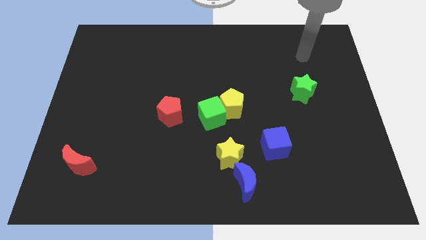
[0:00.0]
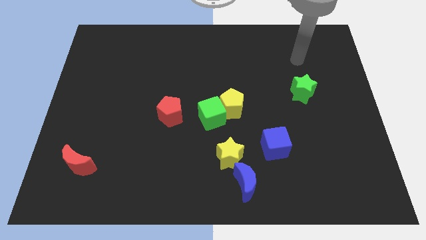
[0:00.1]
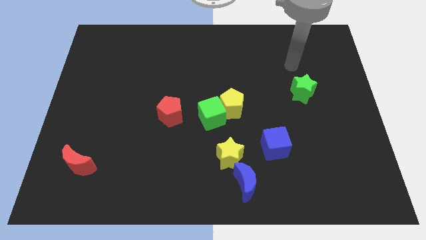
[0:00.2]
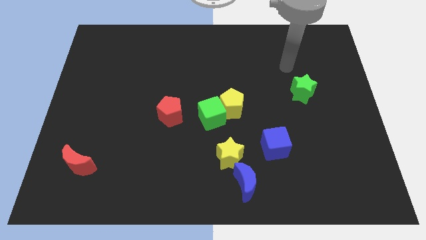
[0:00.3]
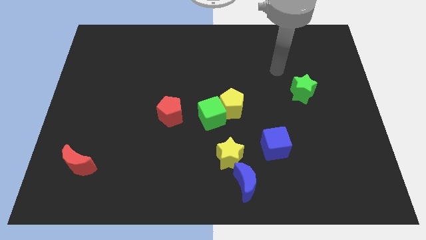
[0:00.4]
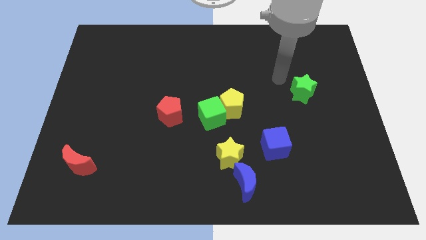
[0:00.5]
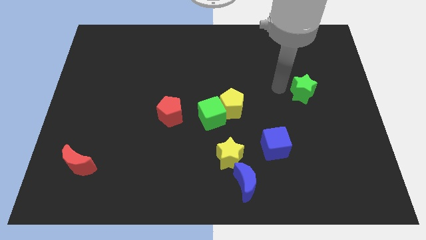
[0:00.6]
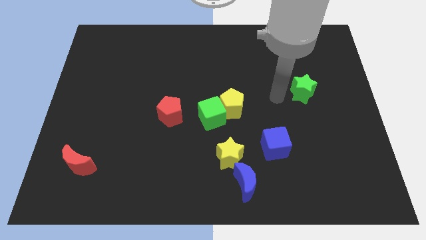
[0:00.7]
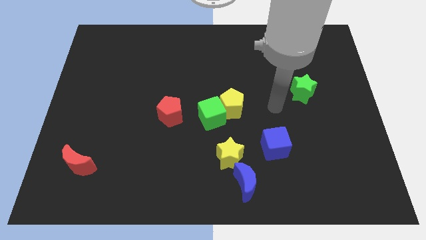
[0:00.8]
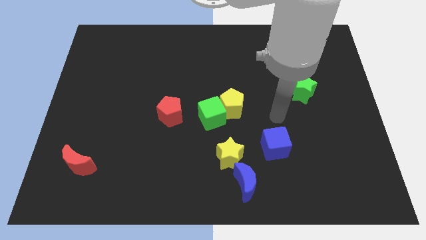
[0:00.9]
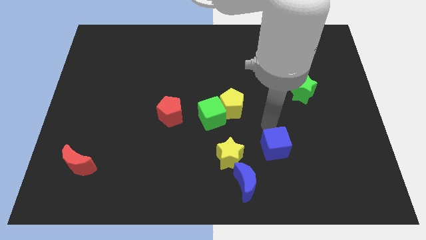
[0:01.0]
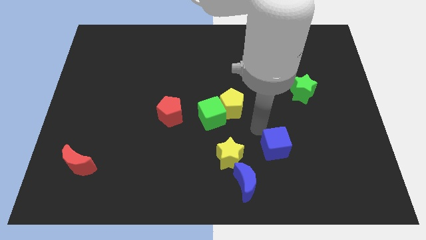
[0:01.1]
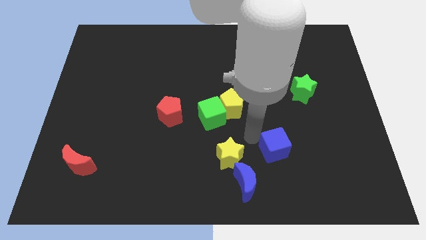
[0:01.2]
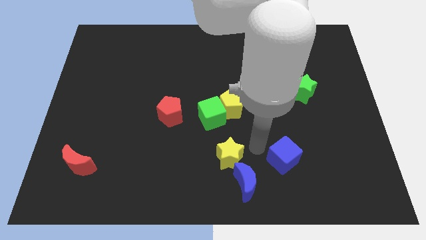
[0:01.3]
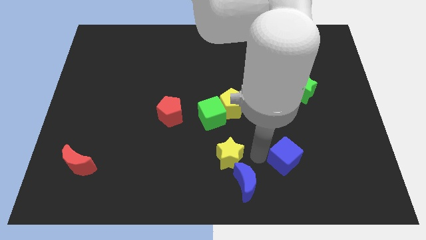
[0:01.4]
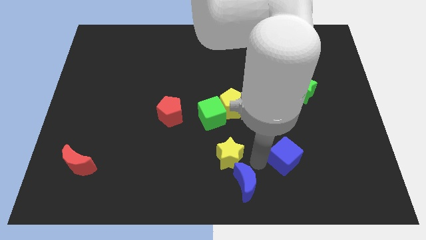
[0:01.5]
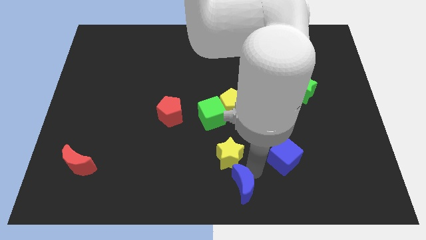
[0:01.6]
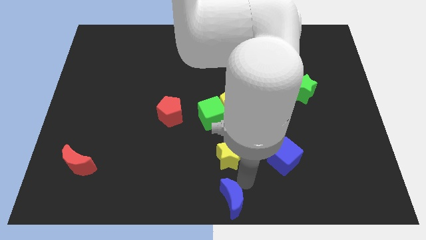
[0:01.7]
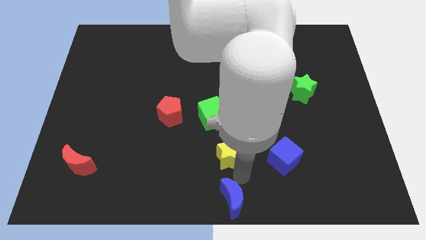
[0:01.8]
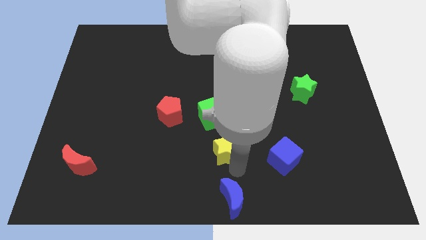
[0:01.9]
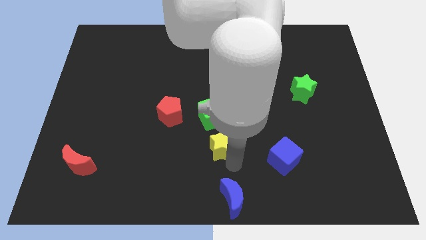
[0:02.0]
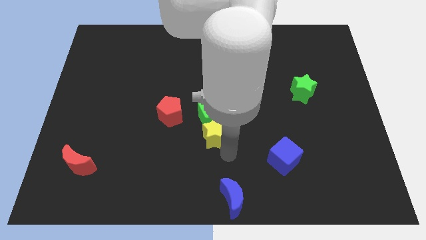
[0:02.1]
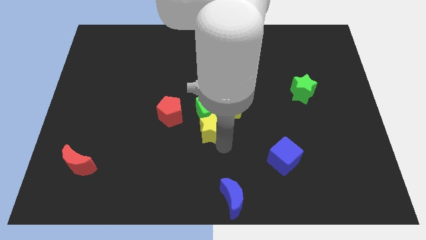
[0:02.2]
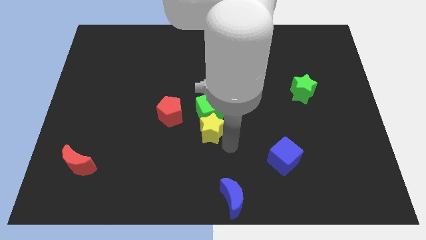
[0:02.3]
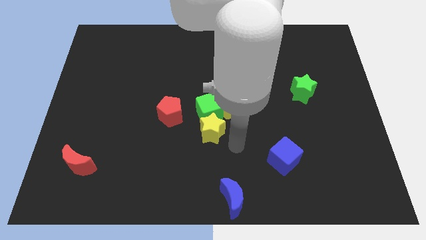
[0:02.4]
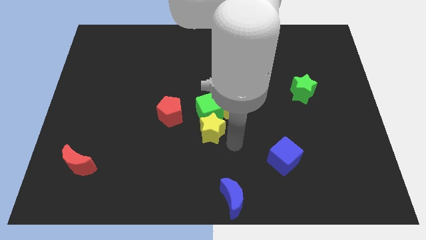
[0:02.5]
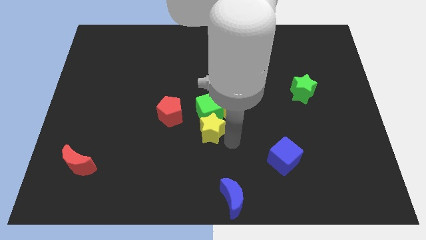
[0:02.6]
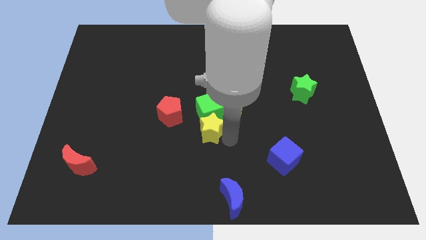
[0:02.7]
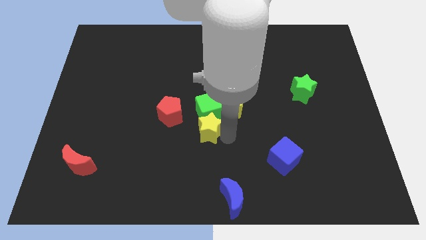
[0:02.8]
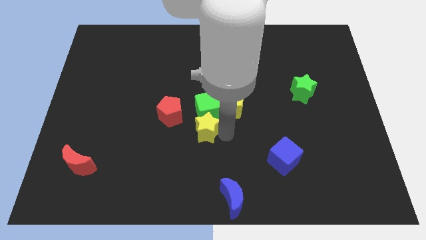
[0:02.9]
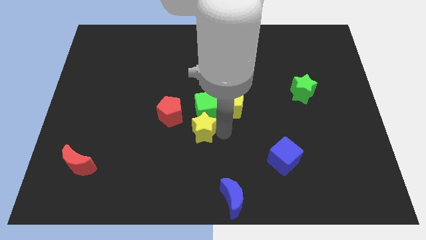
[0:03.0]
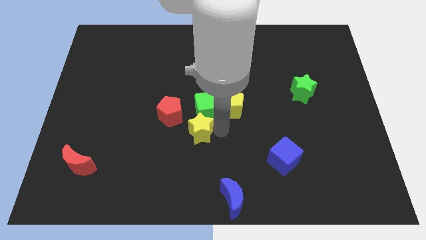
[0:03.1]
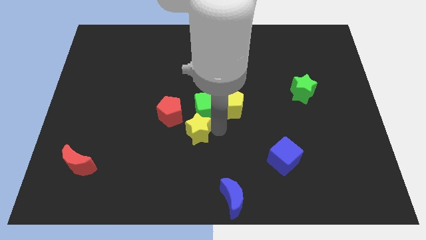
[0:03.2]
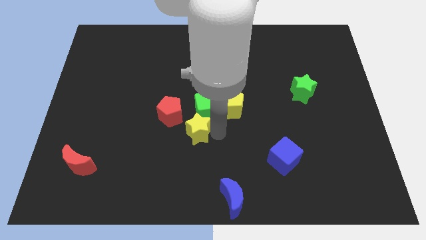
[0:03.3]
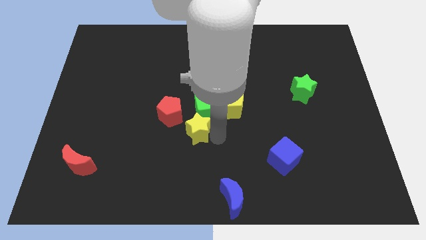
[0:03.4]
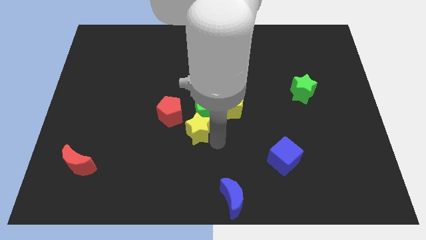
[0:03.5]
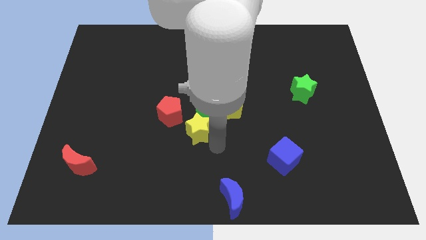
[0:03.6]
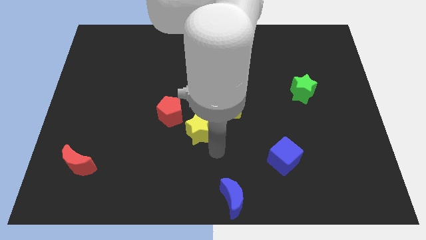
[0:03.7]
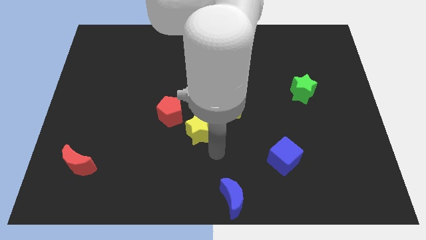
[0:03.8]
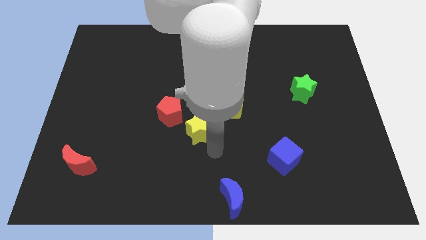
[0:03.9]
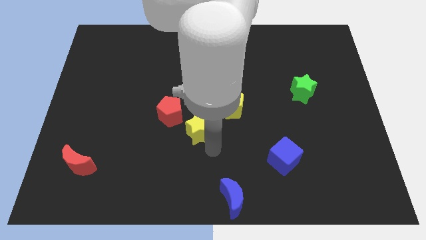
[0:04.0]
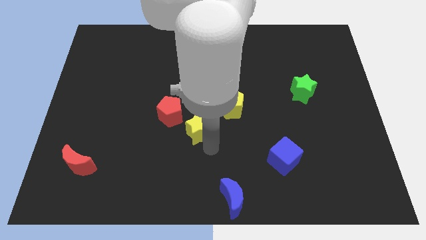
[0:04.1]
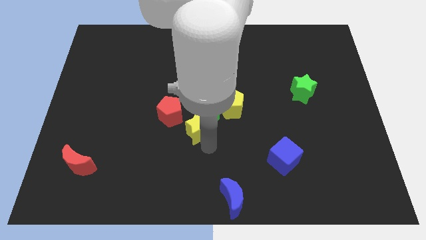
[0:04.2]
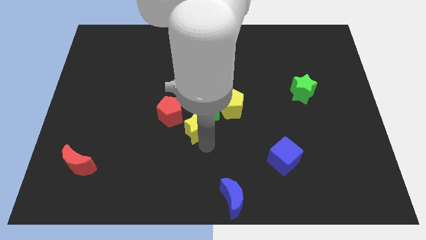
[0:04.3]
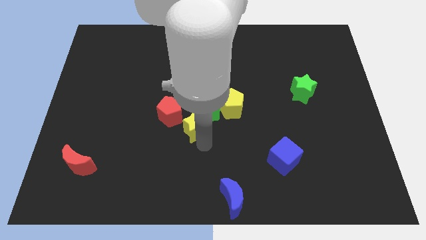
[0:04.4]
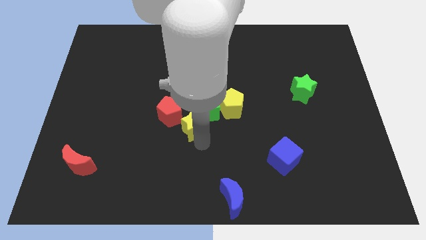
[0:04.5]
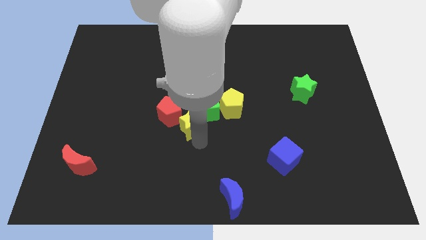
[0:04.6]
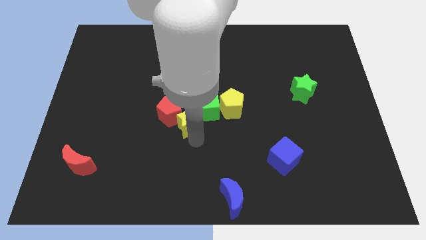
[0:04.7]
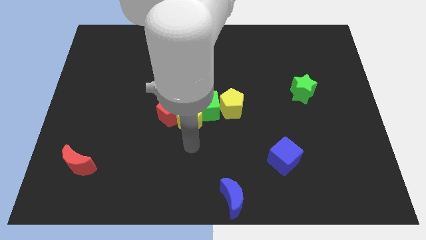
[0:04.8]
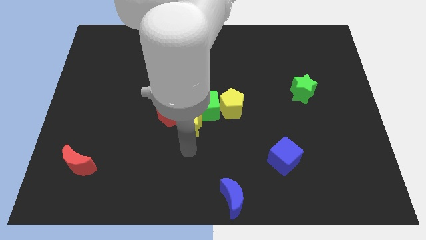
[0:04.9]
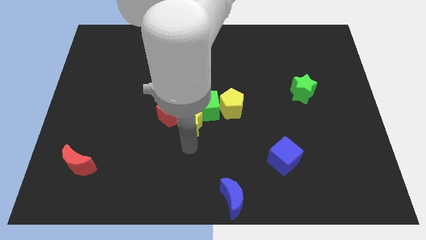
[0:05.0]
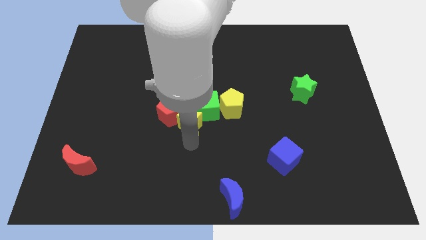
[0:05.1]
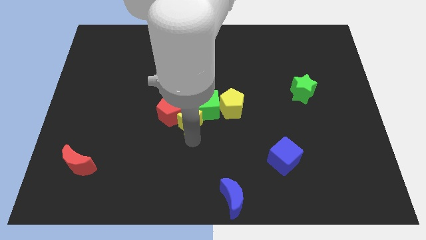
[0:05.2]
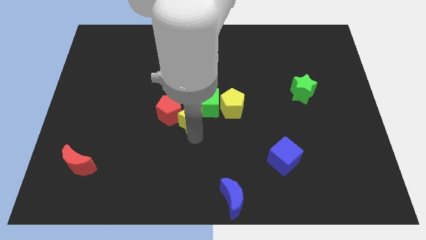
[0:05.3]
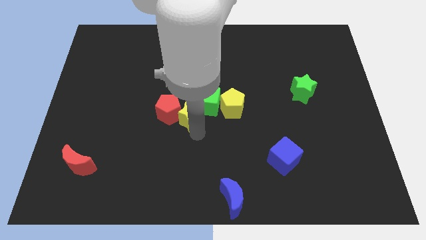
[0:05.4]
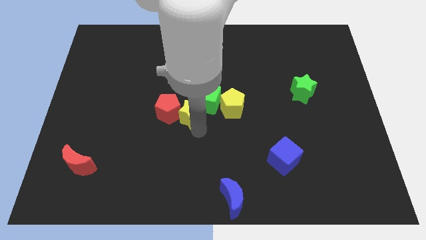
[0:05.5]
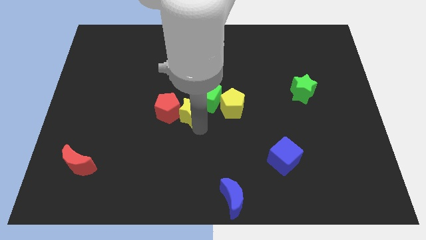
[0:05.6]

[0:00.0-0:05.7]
push the yellow star to the top right of the red pentagon
